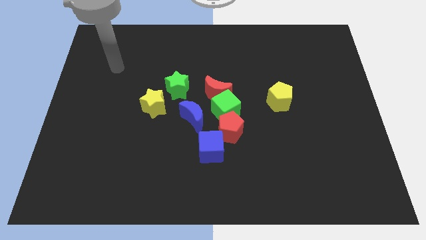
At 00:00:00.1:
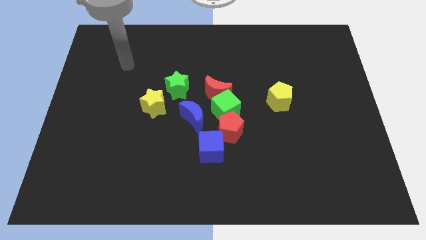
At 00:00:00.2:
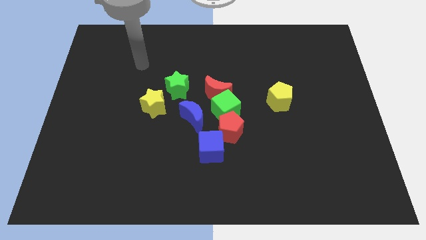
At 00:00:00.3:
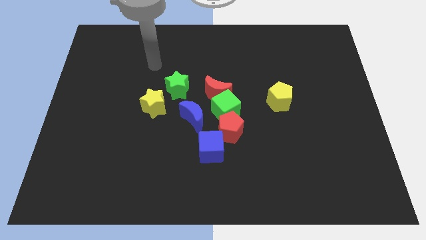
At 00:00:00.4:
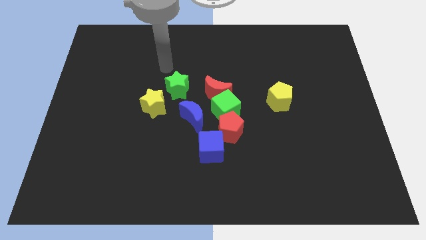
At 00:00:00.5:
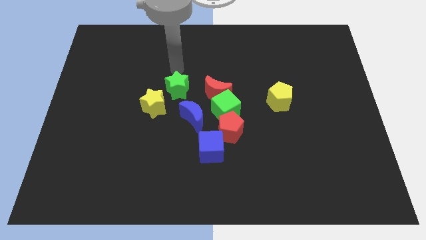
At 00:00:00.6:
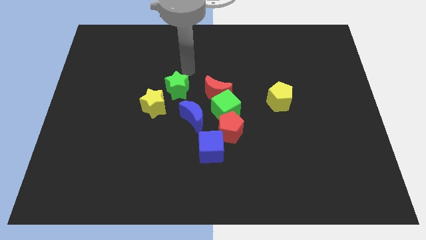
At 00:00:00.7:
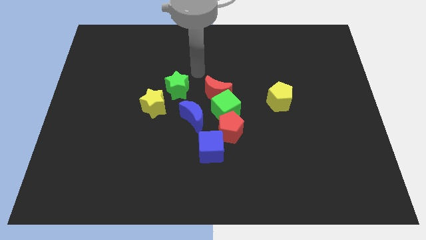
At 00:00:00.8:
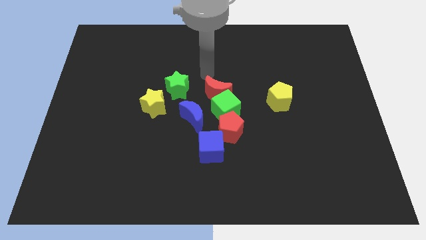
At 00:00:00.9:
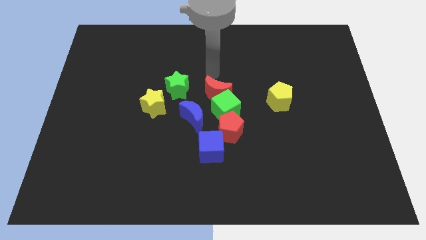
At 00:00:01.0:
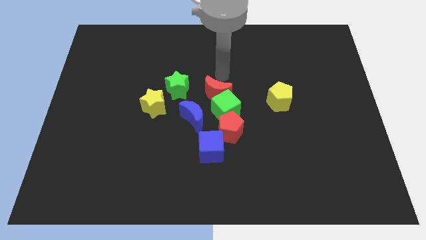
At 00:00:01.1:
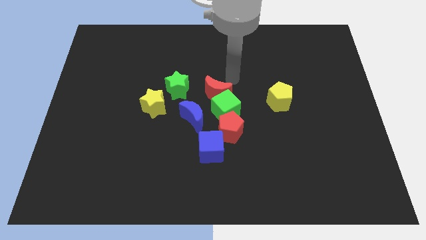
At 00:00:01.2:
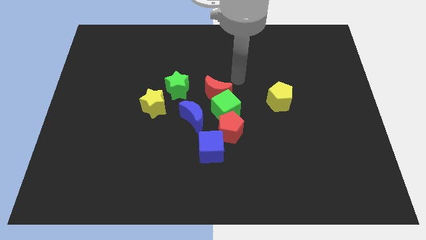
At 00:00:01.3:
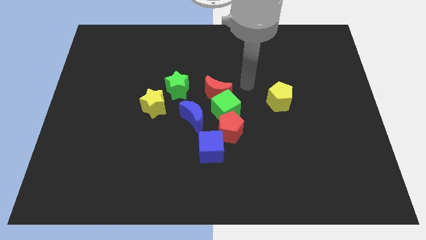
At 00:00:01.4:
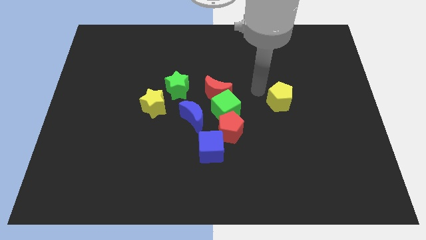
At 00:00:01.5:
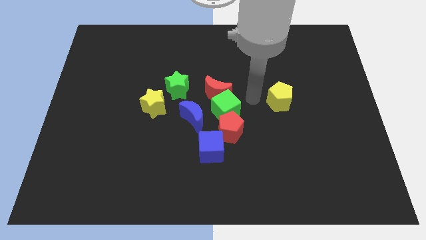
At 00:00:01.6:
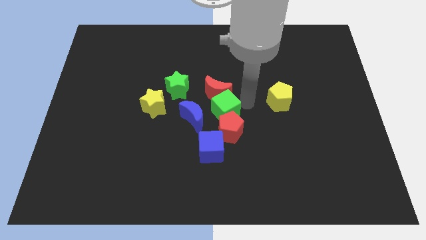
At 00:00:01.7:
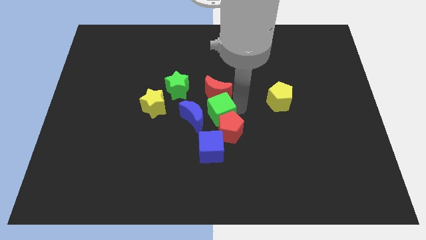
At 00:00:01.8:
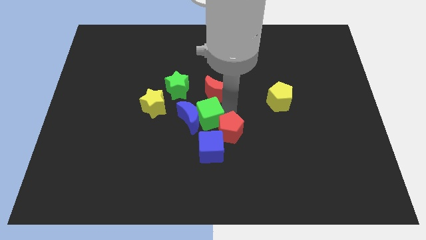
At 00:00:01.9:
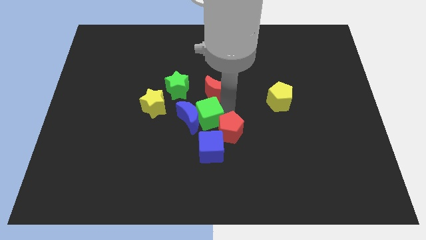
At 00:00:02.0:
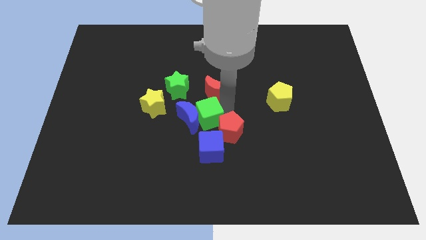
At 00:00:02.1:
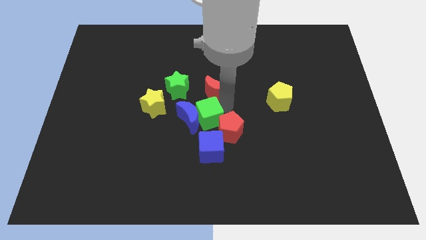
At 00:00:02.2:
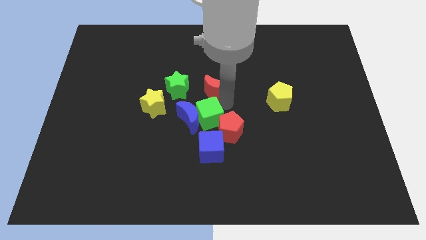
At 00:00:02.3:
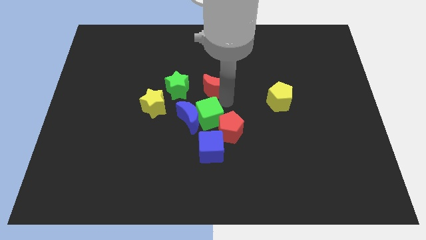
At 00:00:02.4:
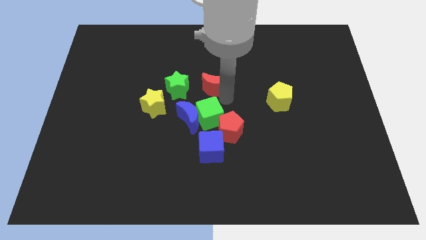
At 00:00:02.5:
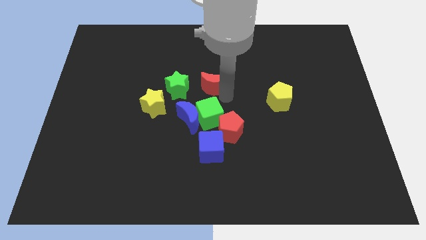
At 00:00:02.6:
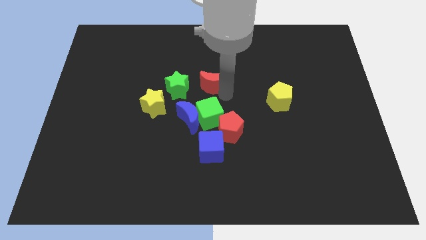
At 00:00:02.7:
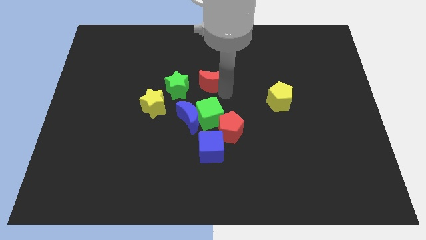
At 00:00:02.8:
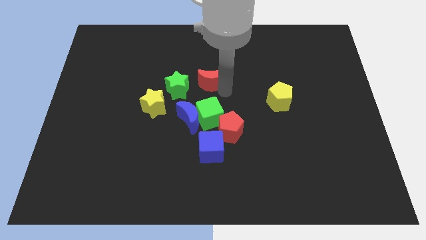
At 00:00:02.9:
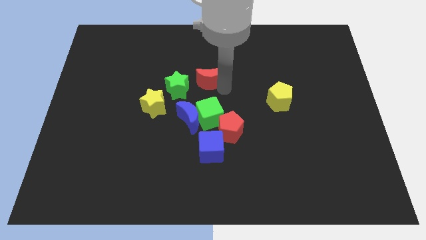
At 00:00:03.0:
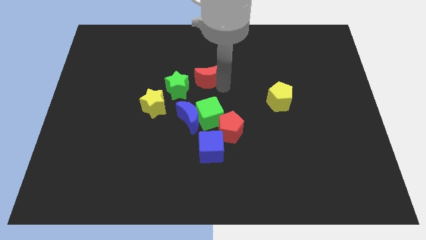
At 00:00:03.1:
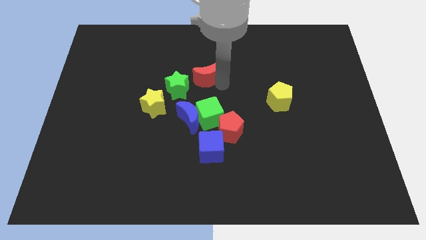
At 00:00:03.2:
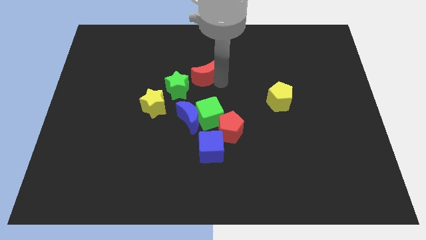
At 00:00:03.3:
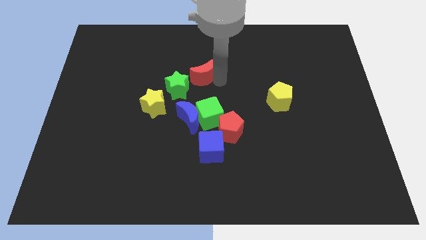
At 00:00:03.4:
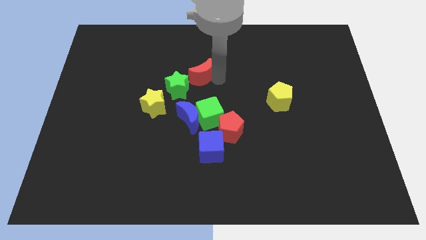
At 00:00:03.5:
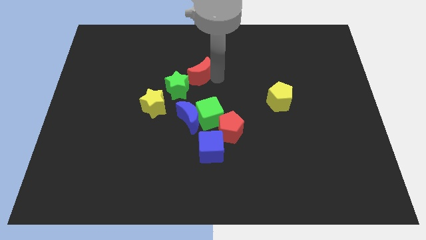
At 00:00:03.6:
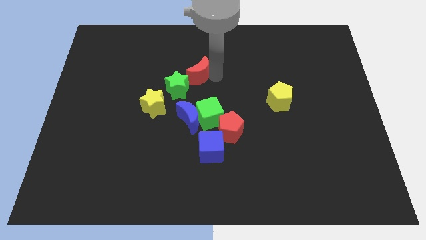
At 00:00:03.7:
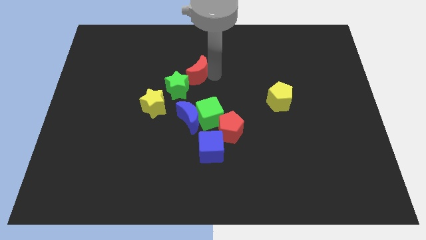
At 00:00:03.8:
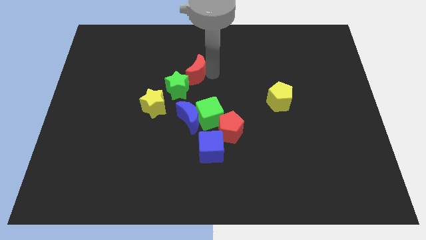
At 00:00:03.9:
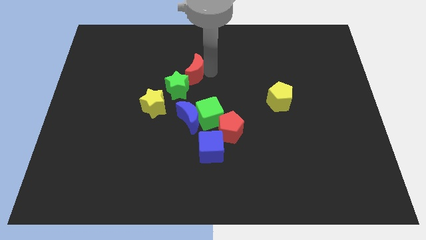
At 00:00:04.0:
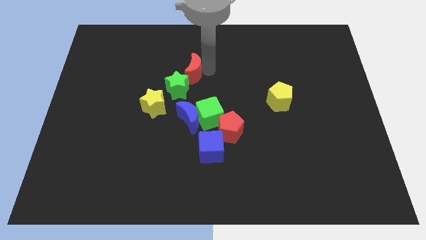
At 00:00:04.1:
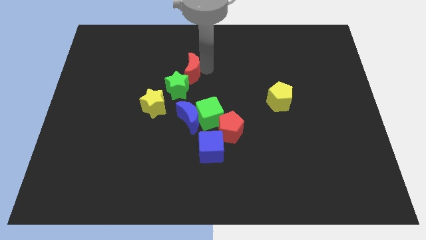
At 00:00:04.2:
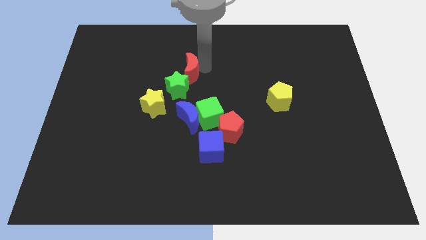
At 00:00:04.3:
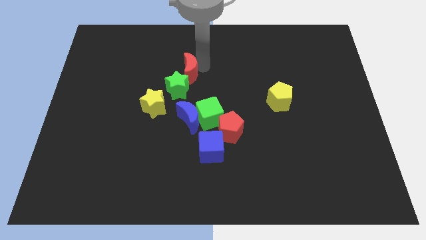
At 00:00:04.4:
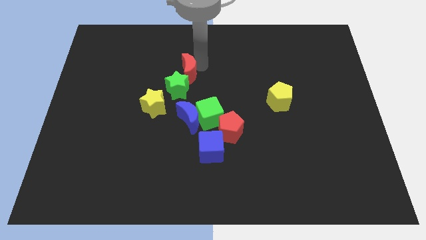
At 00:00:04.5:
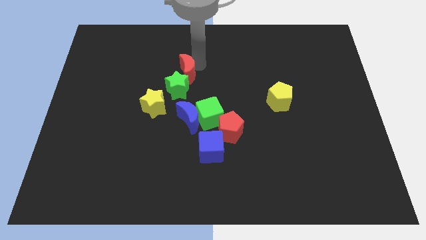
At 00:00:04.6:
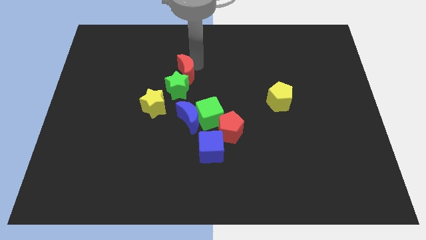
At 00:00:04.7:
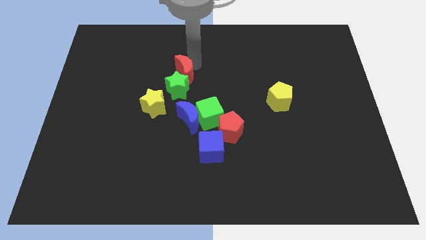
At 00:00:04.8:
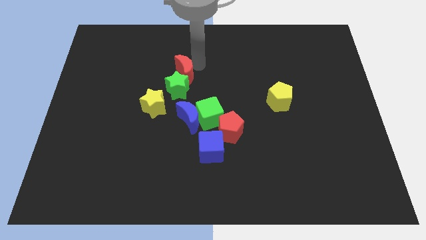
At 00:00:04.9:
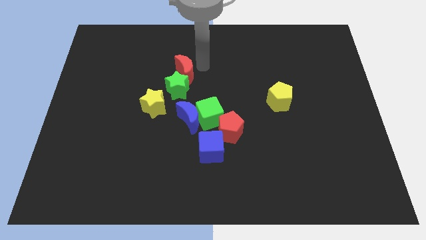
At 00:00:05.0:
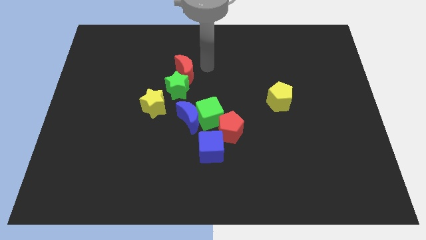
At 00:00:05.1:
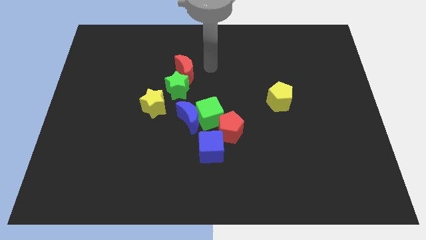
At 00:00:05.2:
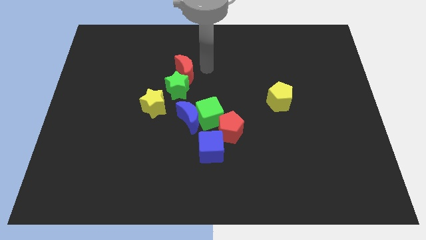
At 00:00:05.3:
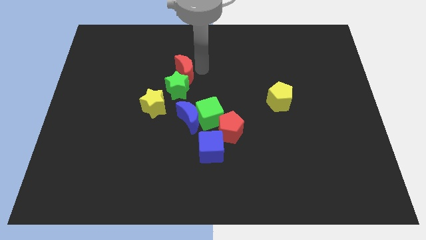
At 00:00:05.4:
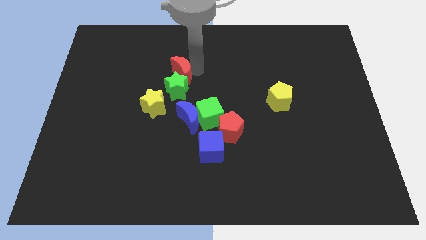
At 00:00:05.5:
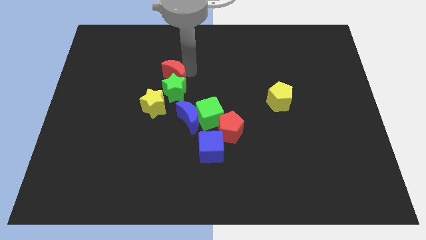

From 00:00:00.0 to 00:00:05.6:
push the red moon to the left a little

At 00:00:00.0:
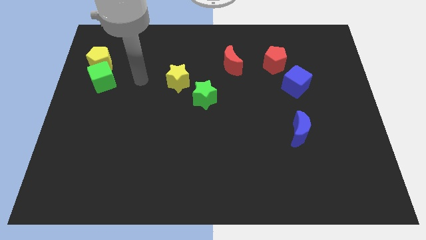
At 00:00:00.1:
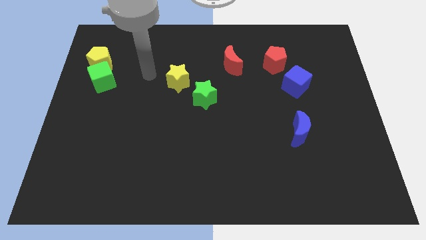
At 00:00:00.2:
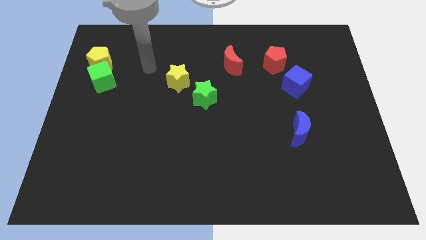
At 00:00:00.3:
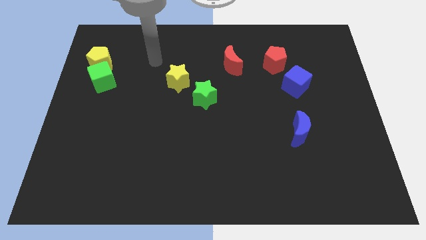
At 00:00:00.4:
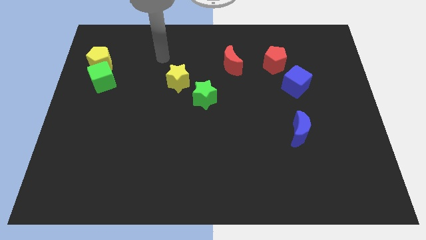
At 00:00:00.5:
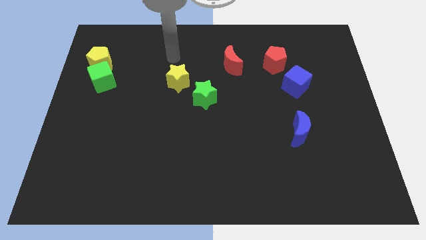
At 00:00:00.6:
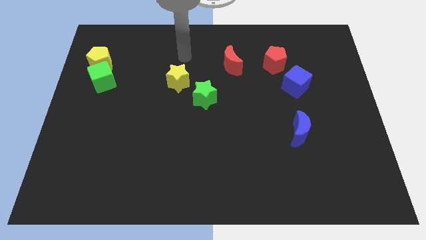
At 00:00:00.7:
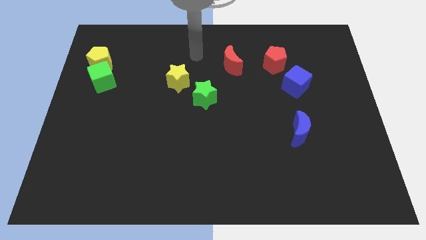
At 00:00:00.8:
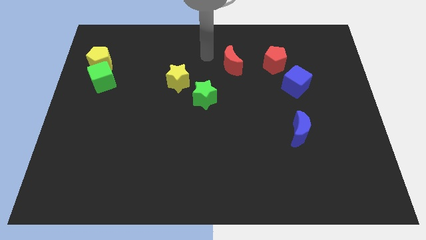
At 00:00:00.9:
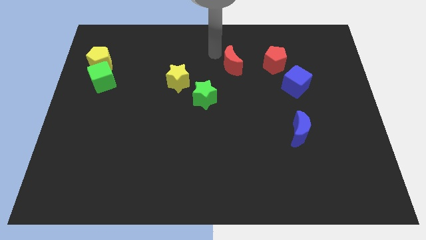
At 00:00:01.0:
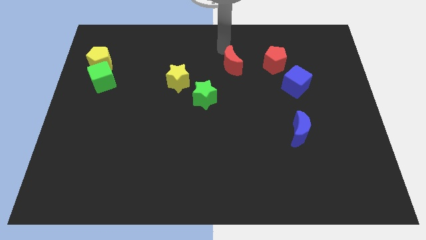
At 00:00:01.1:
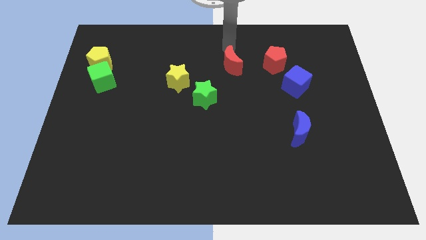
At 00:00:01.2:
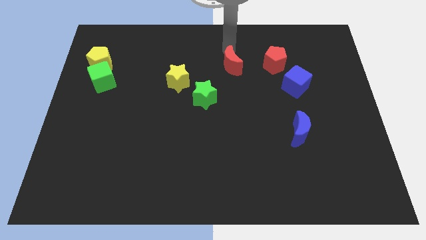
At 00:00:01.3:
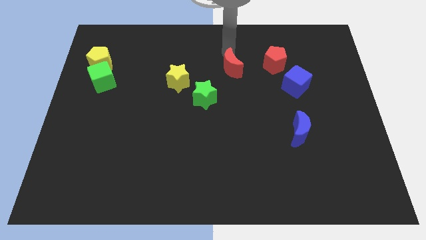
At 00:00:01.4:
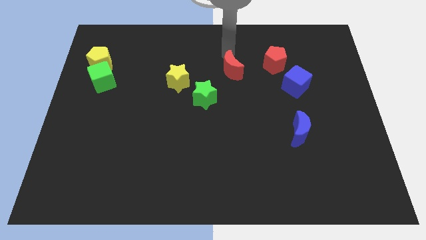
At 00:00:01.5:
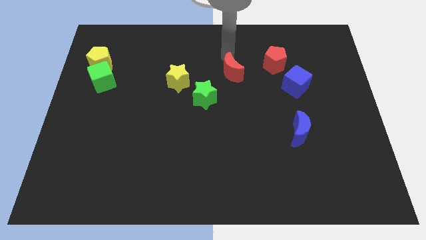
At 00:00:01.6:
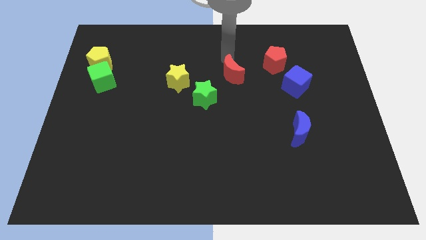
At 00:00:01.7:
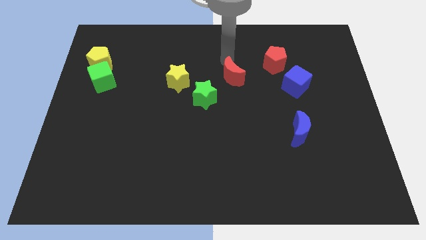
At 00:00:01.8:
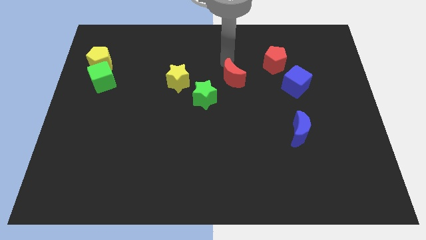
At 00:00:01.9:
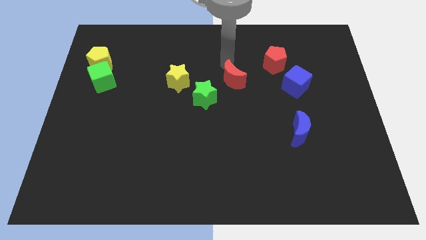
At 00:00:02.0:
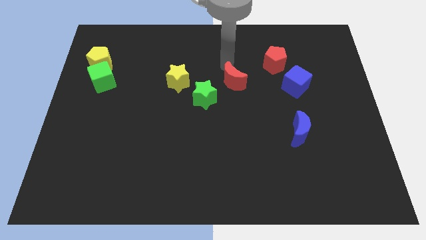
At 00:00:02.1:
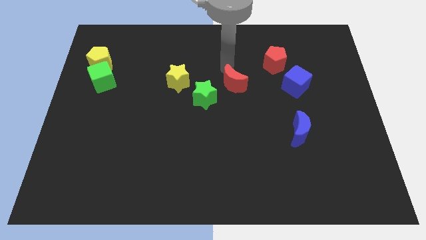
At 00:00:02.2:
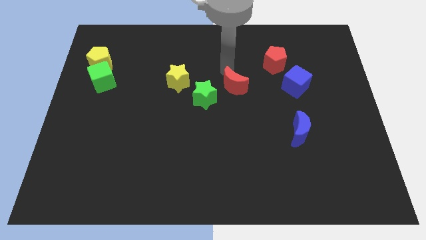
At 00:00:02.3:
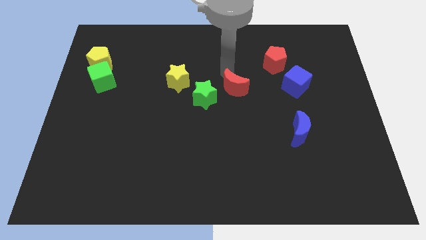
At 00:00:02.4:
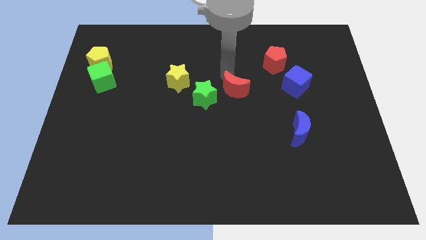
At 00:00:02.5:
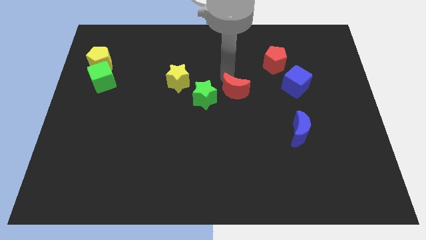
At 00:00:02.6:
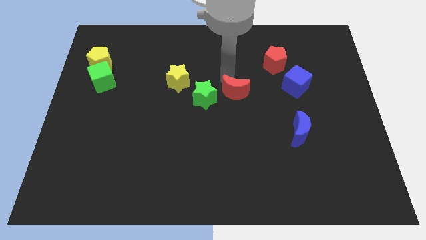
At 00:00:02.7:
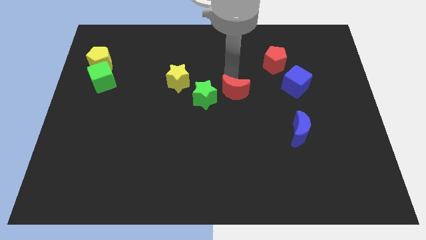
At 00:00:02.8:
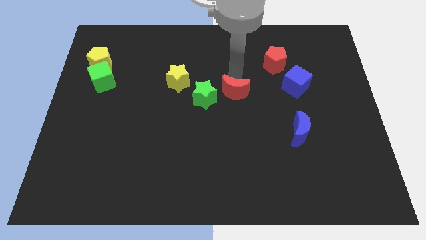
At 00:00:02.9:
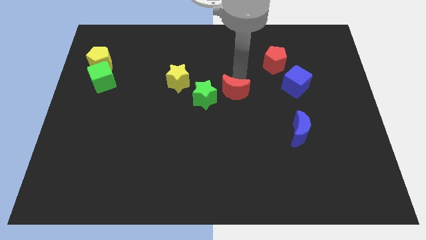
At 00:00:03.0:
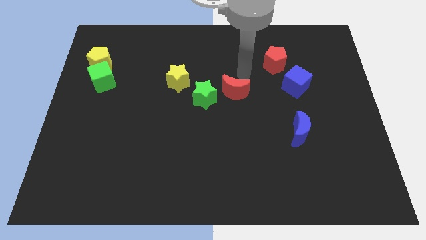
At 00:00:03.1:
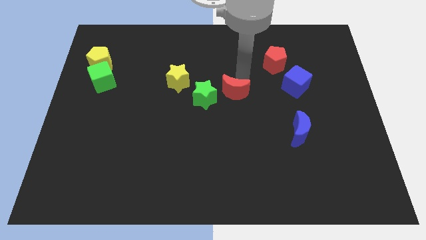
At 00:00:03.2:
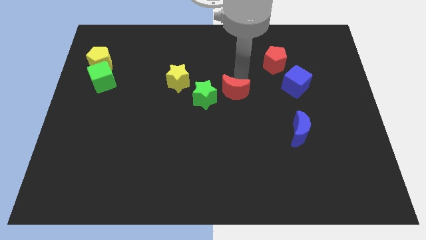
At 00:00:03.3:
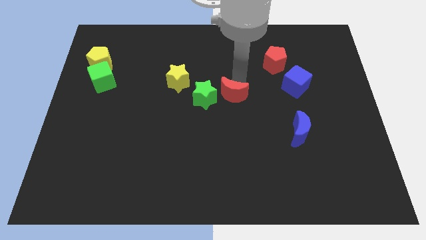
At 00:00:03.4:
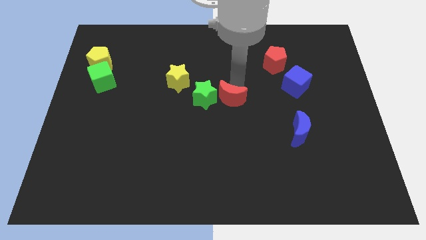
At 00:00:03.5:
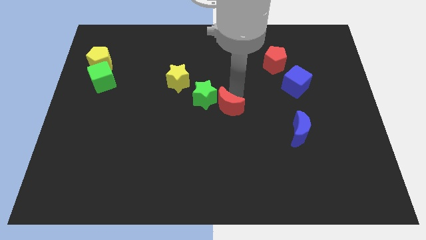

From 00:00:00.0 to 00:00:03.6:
push the red moon downwards and to the left diagonally a little bit
